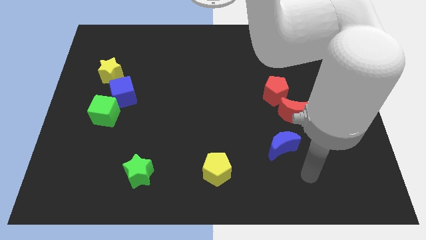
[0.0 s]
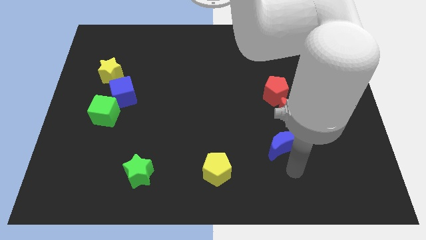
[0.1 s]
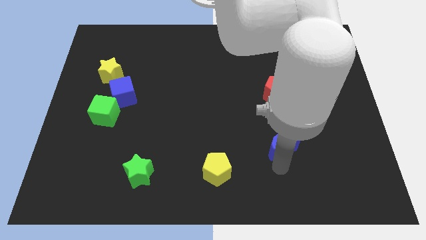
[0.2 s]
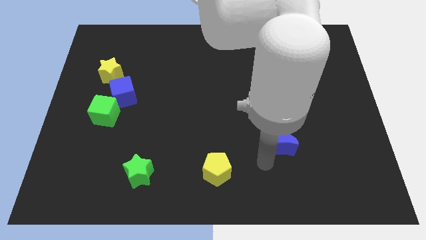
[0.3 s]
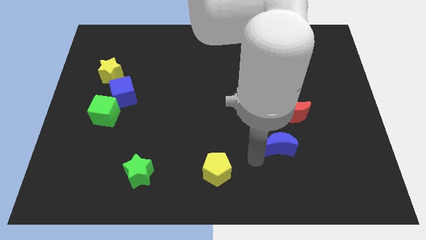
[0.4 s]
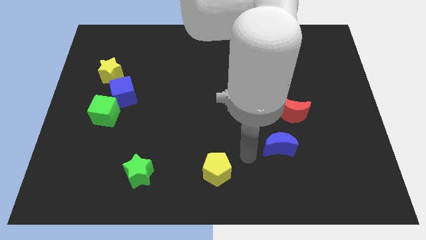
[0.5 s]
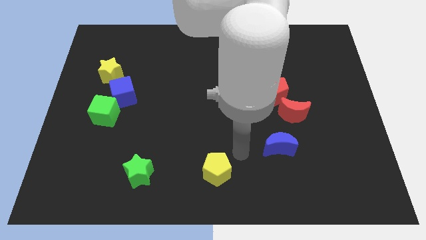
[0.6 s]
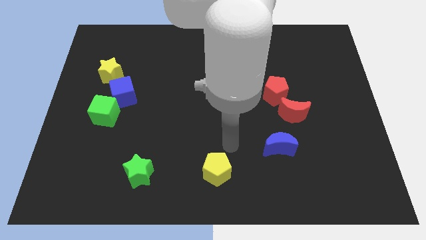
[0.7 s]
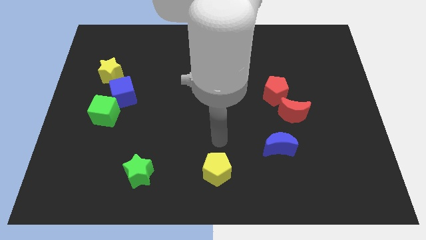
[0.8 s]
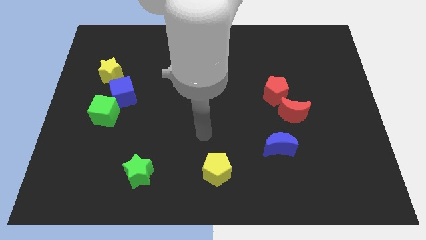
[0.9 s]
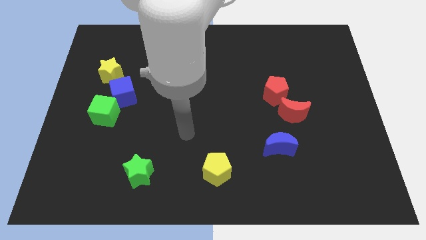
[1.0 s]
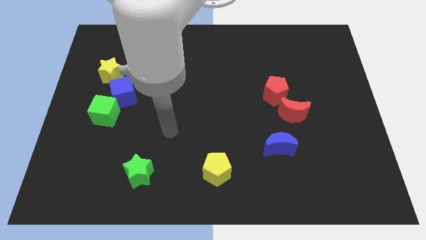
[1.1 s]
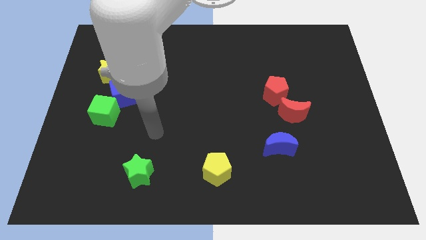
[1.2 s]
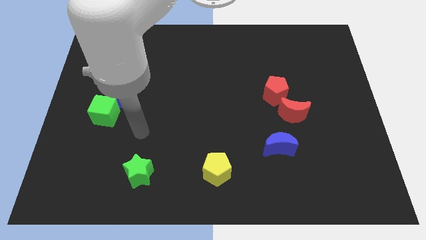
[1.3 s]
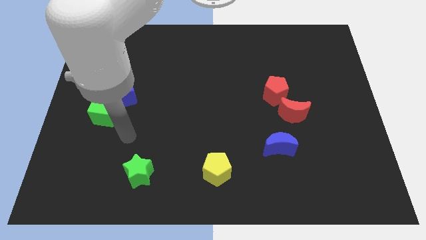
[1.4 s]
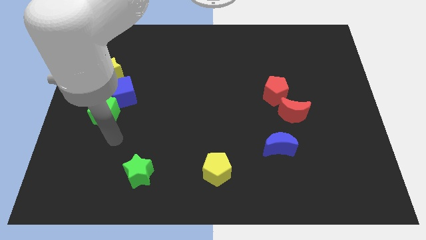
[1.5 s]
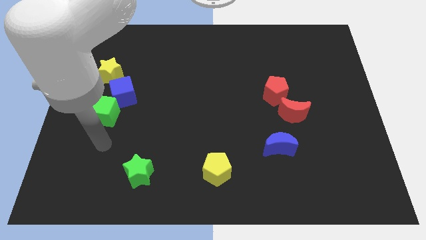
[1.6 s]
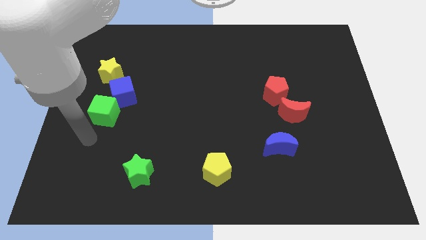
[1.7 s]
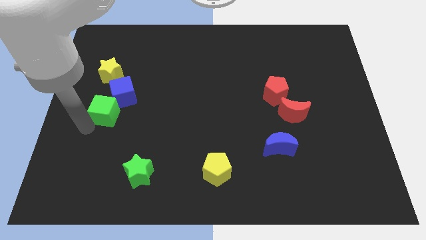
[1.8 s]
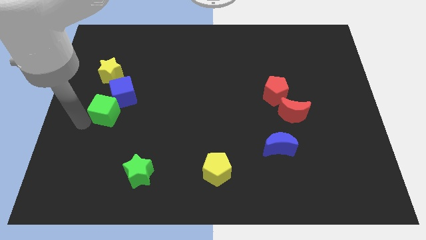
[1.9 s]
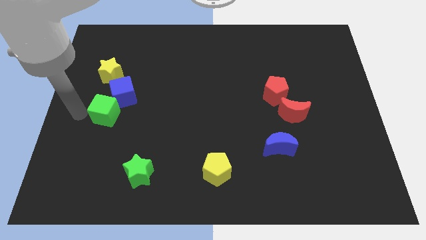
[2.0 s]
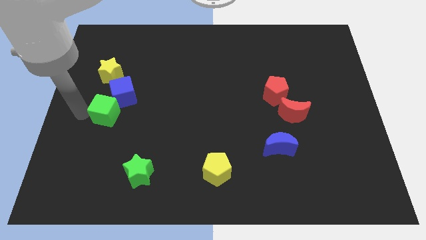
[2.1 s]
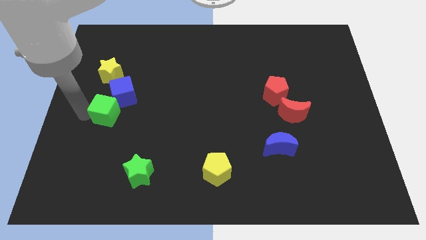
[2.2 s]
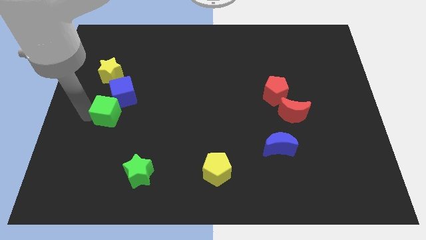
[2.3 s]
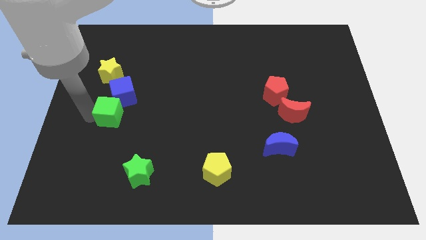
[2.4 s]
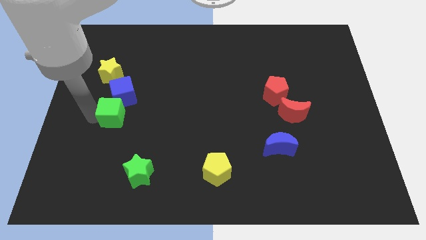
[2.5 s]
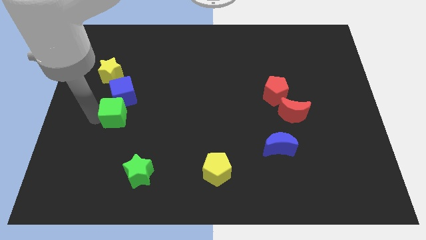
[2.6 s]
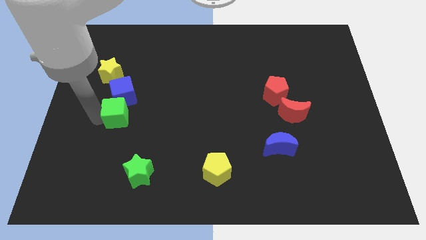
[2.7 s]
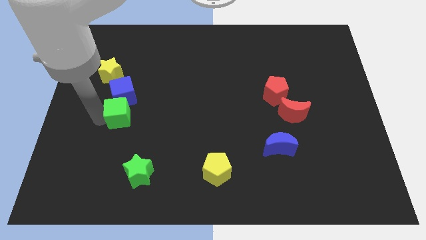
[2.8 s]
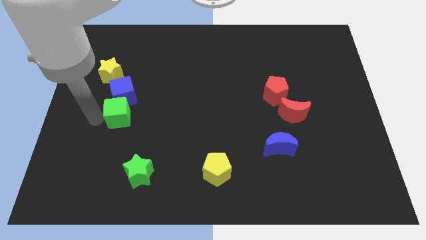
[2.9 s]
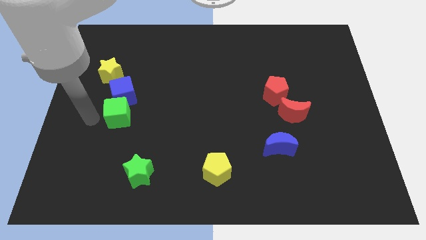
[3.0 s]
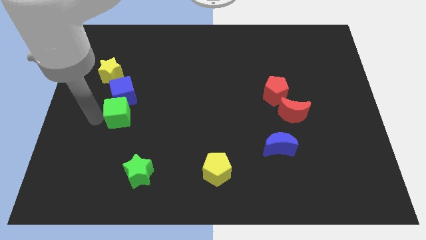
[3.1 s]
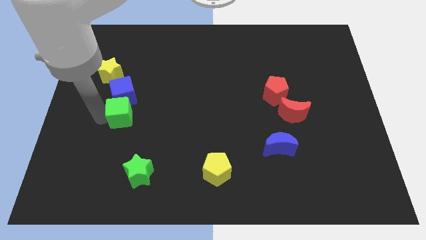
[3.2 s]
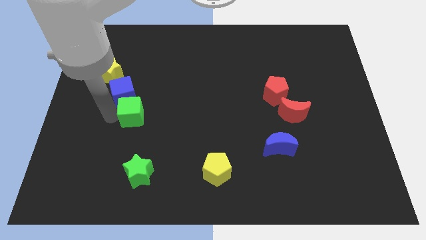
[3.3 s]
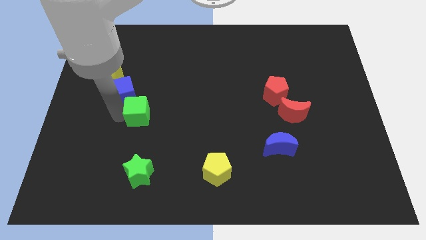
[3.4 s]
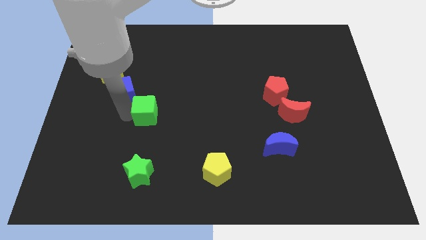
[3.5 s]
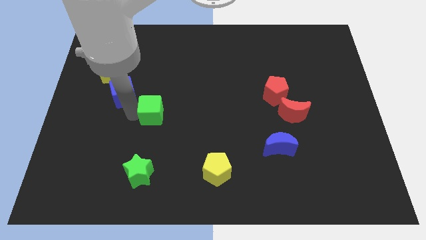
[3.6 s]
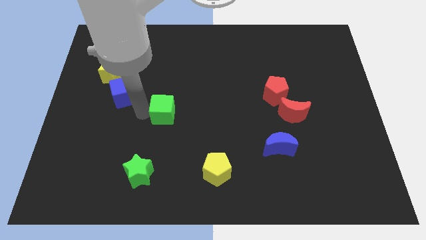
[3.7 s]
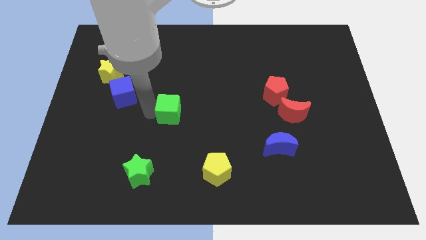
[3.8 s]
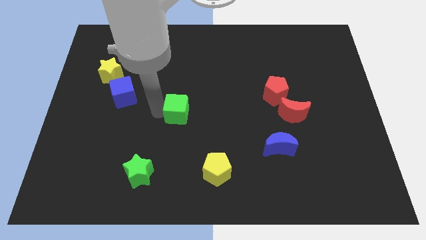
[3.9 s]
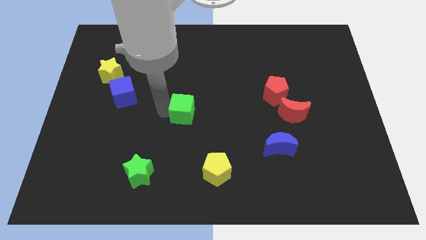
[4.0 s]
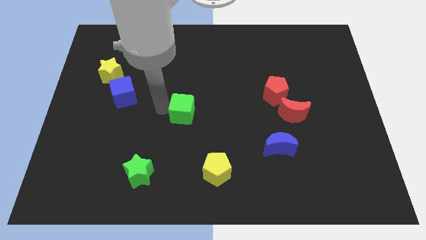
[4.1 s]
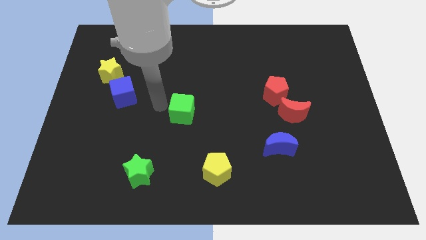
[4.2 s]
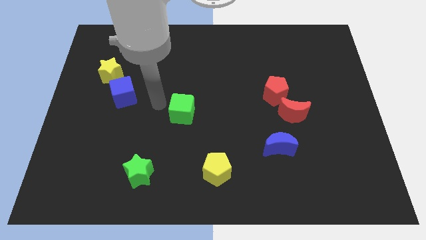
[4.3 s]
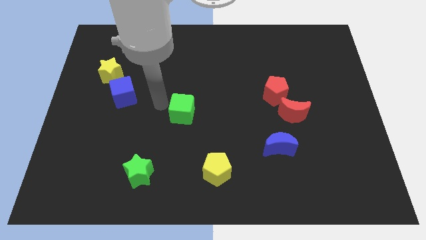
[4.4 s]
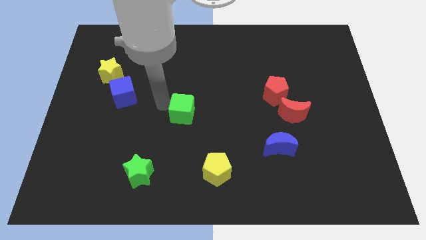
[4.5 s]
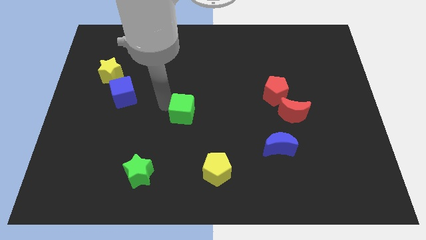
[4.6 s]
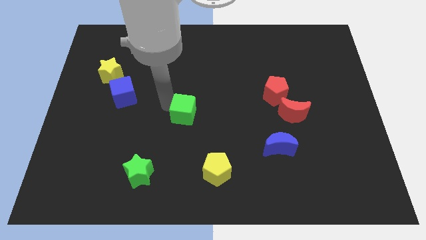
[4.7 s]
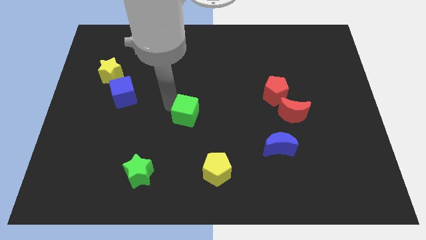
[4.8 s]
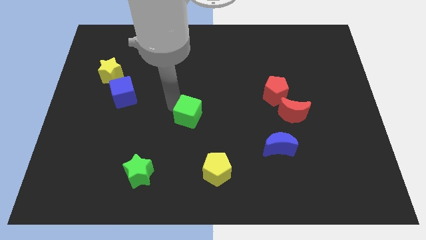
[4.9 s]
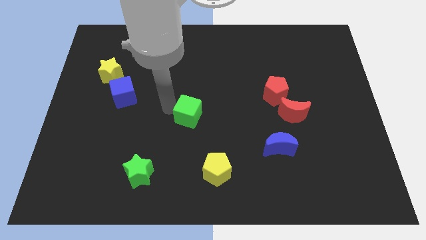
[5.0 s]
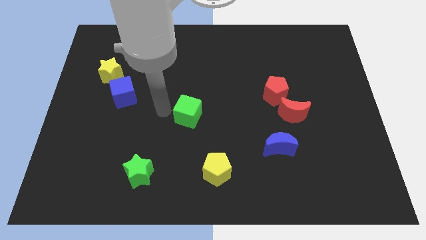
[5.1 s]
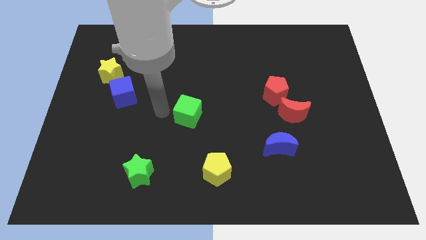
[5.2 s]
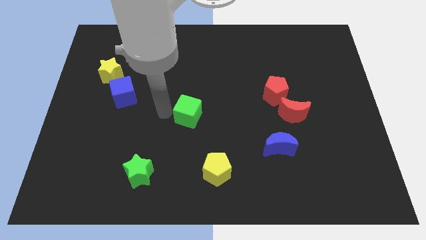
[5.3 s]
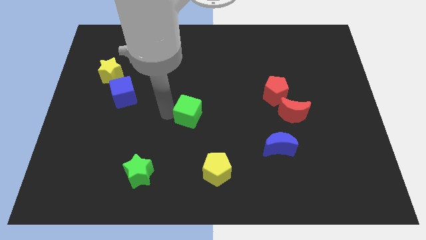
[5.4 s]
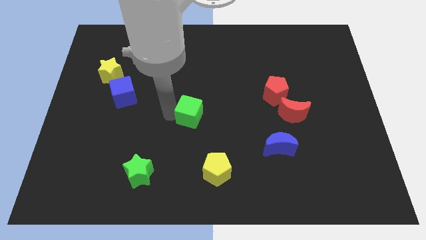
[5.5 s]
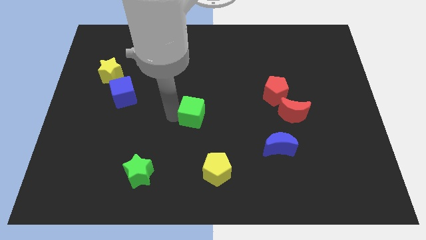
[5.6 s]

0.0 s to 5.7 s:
push the green cube right

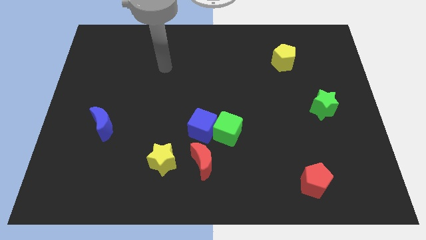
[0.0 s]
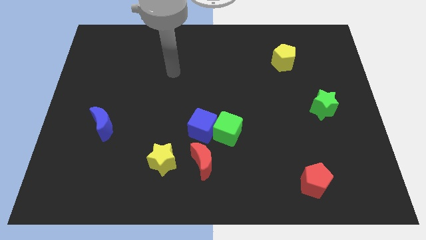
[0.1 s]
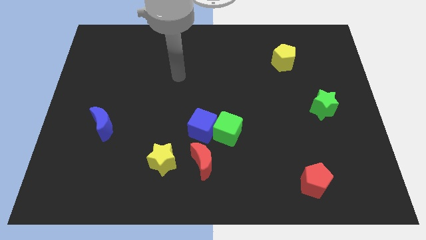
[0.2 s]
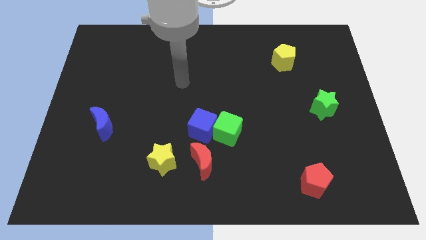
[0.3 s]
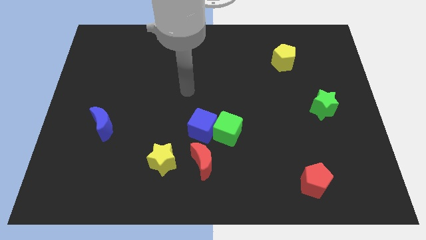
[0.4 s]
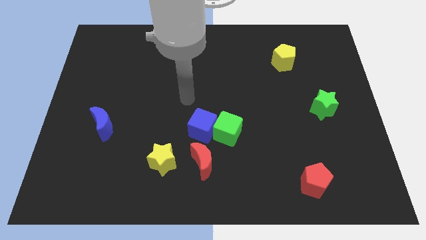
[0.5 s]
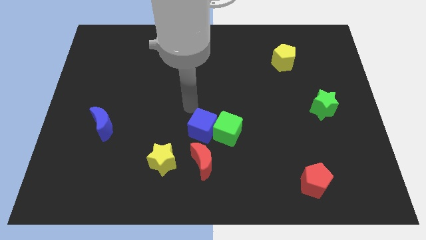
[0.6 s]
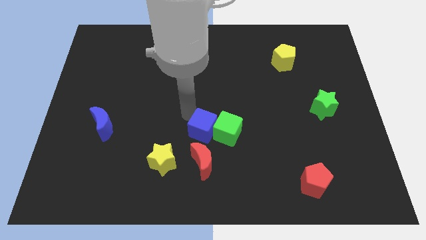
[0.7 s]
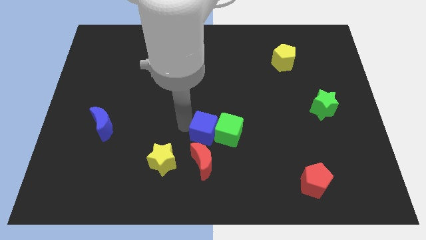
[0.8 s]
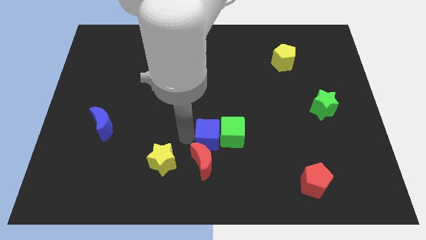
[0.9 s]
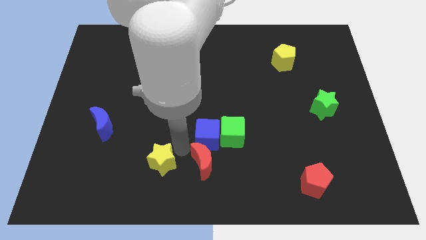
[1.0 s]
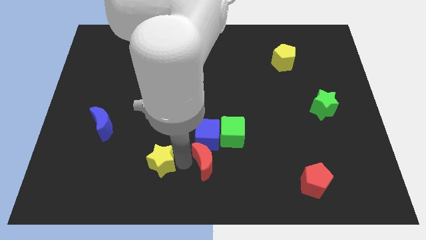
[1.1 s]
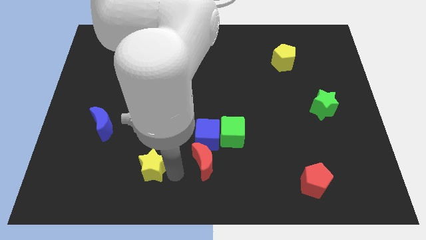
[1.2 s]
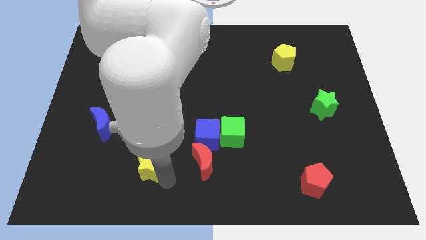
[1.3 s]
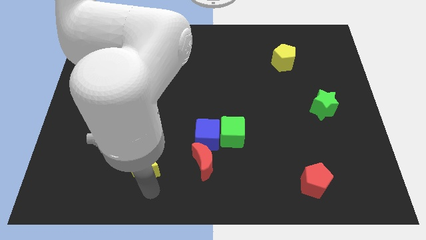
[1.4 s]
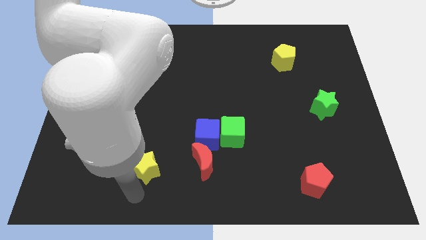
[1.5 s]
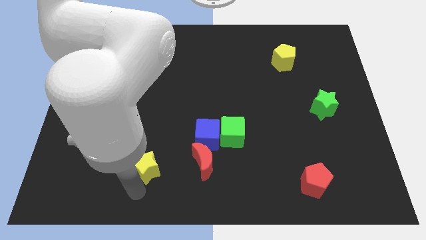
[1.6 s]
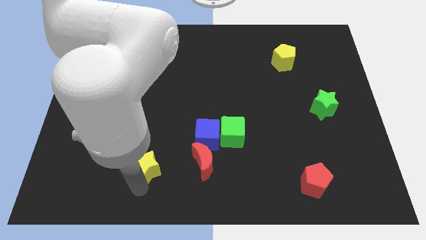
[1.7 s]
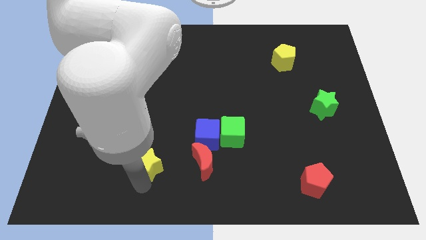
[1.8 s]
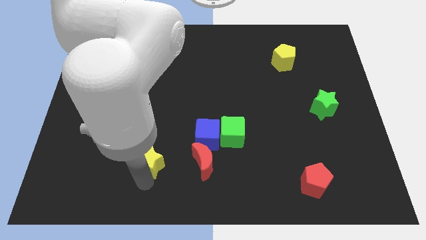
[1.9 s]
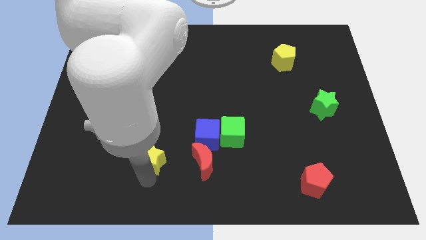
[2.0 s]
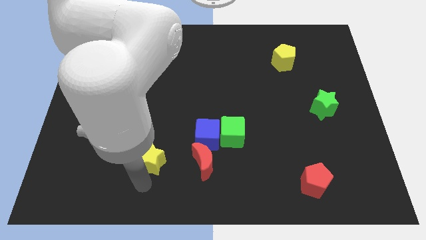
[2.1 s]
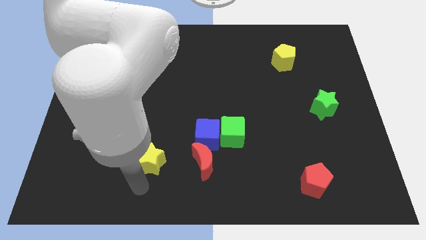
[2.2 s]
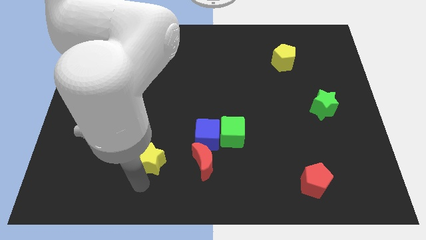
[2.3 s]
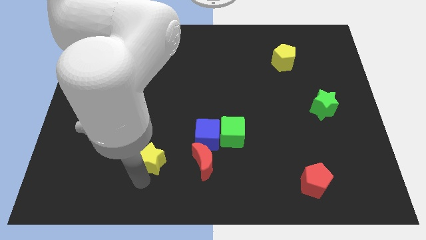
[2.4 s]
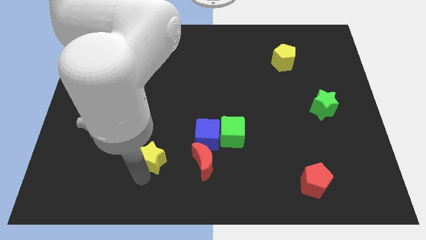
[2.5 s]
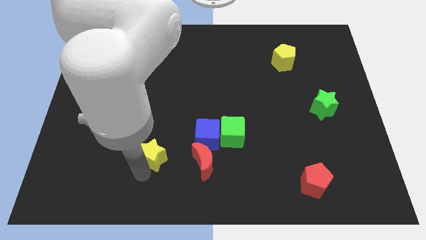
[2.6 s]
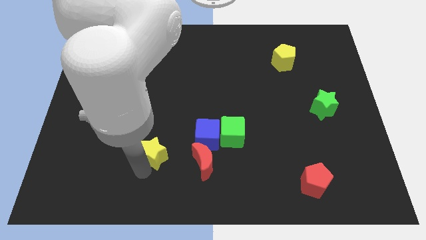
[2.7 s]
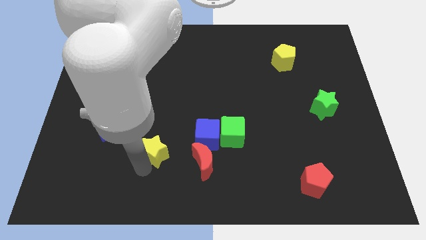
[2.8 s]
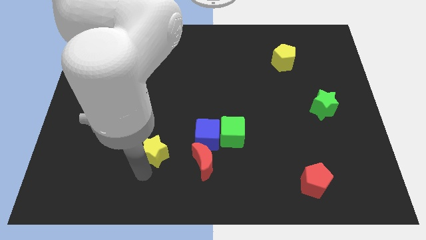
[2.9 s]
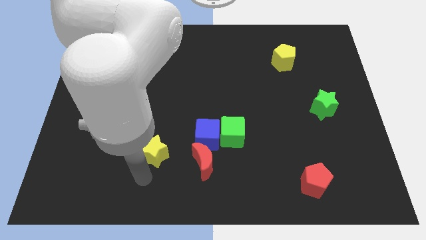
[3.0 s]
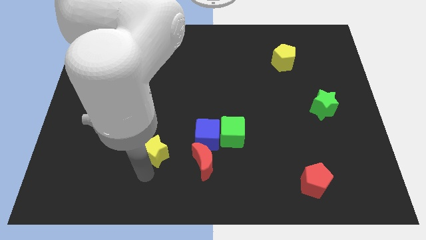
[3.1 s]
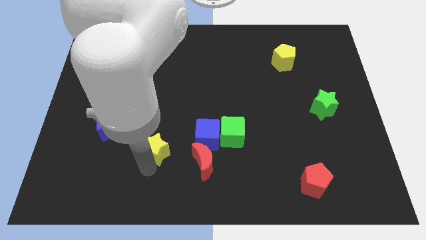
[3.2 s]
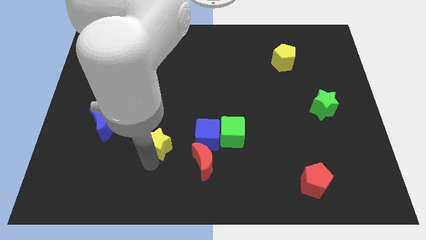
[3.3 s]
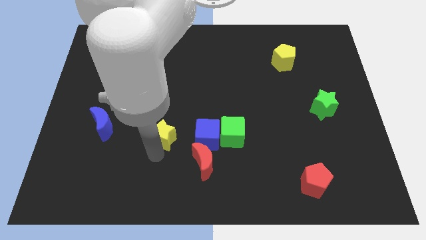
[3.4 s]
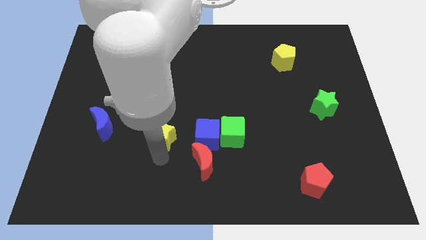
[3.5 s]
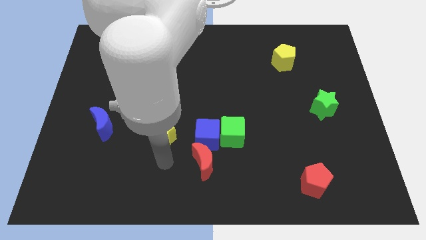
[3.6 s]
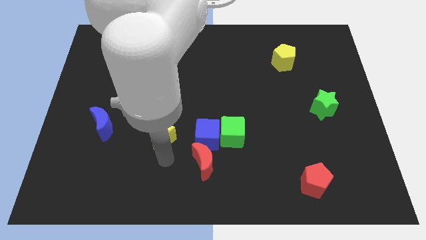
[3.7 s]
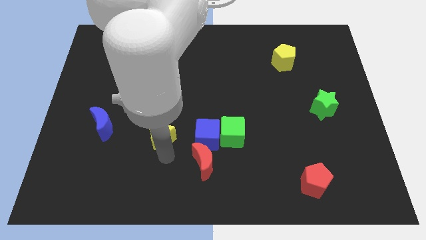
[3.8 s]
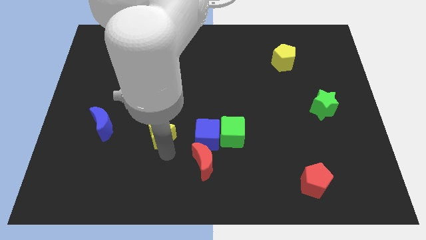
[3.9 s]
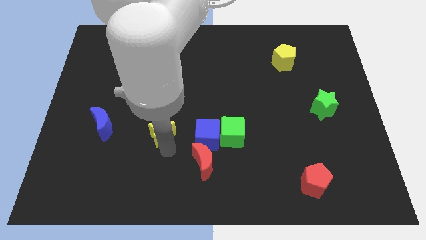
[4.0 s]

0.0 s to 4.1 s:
slightly move the yellow star up
